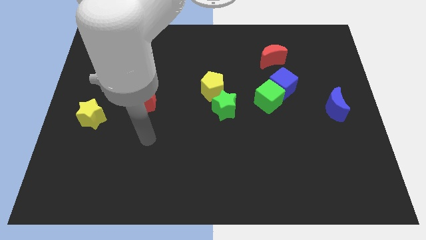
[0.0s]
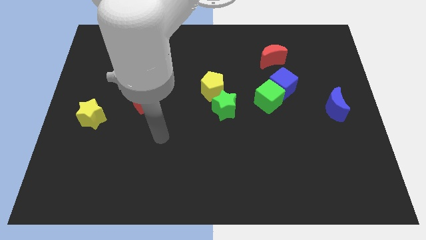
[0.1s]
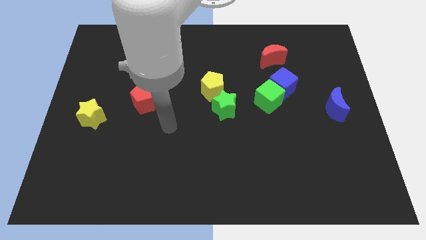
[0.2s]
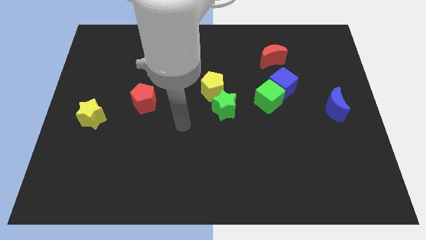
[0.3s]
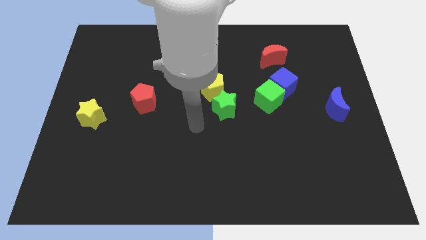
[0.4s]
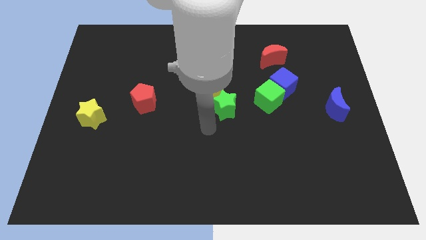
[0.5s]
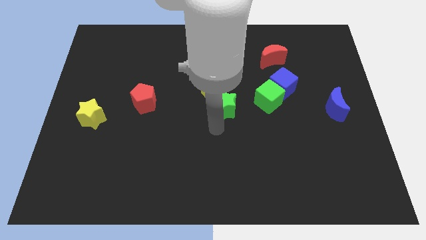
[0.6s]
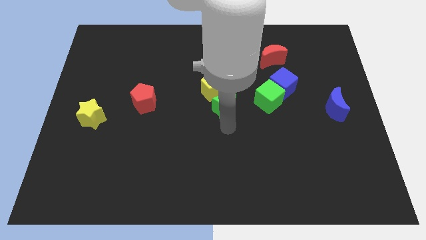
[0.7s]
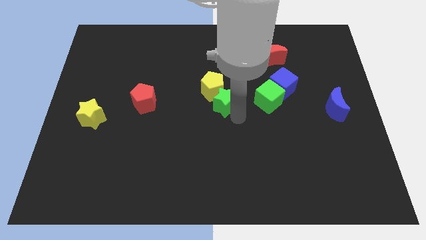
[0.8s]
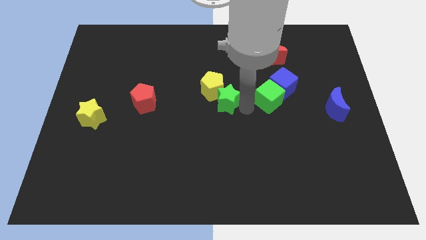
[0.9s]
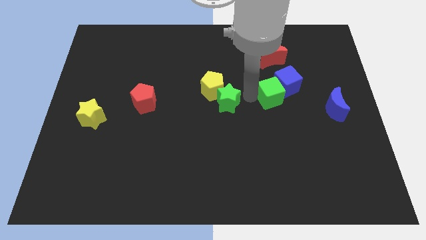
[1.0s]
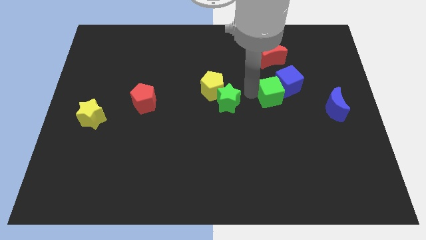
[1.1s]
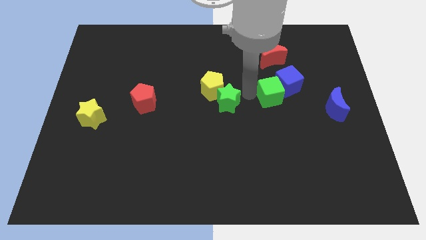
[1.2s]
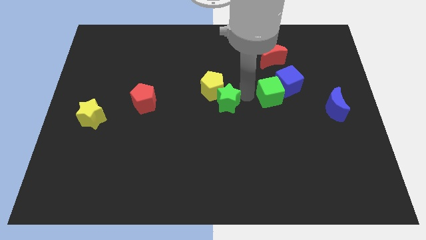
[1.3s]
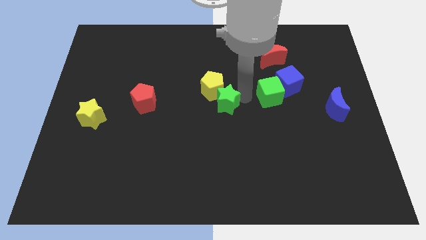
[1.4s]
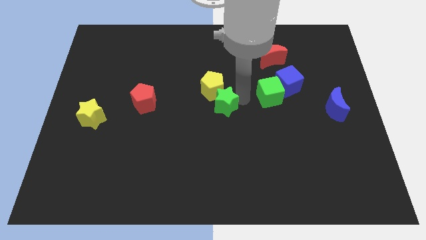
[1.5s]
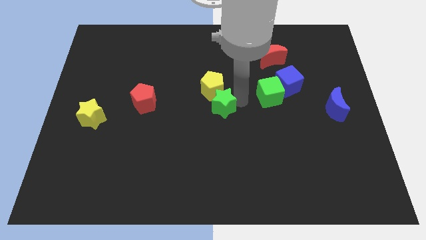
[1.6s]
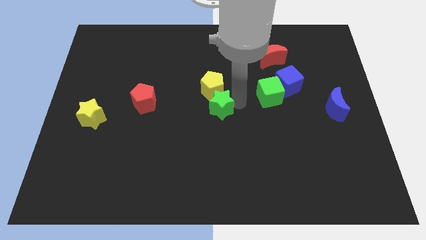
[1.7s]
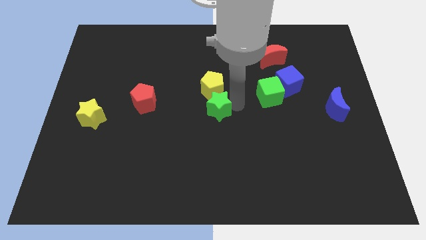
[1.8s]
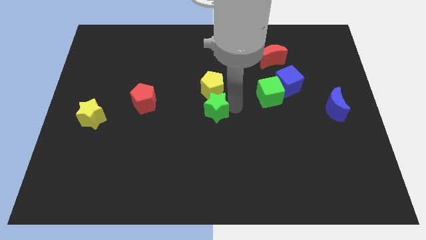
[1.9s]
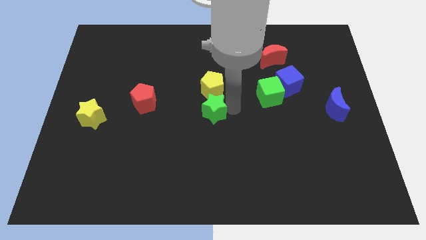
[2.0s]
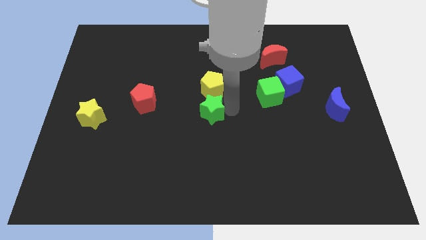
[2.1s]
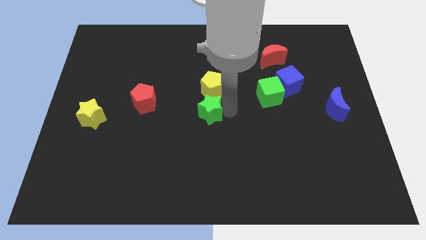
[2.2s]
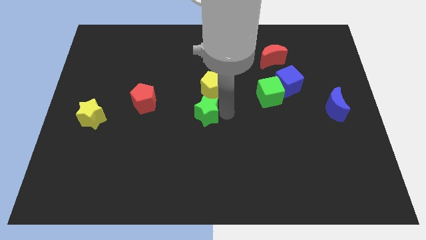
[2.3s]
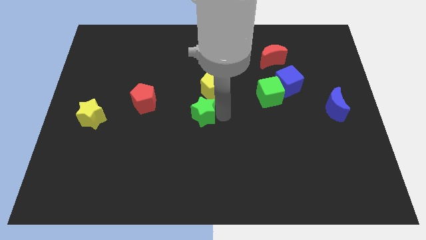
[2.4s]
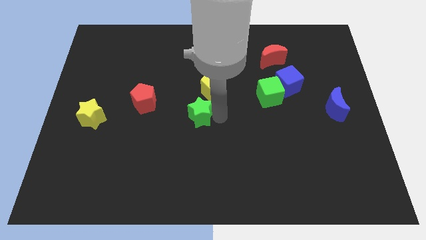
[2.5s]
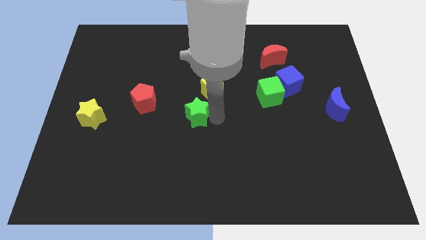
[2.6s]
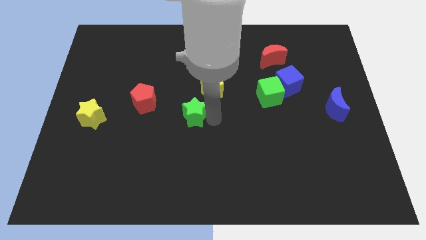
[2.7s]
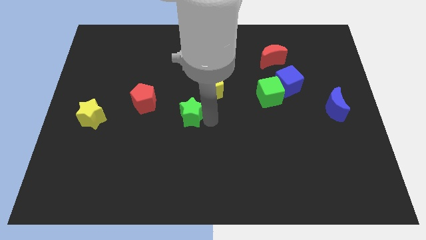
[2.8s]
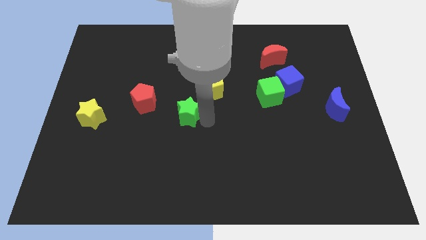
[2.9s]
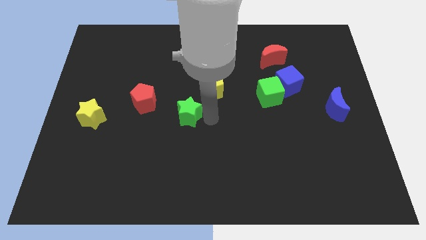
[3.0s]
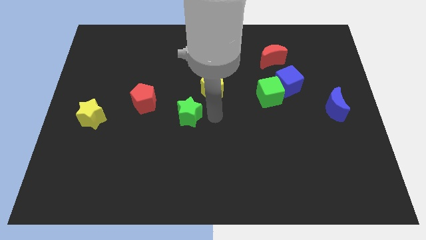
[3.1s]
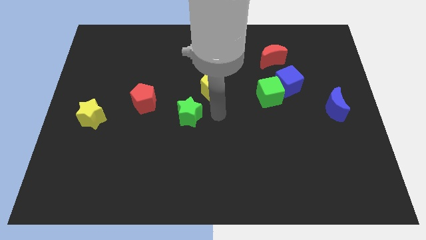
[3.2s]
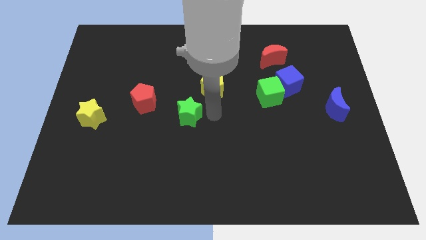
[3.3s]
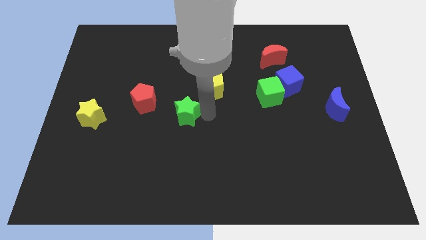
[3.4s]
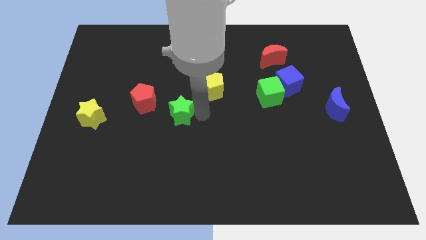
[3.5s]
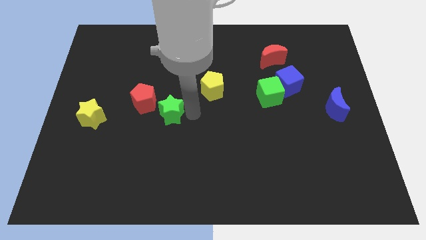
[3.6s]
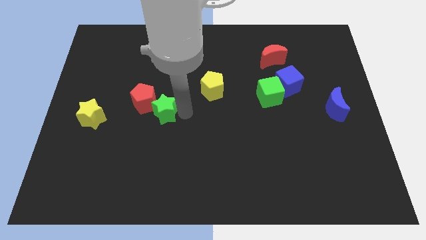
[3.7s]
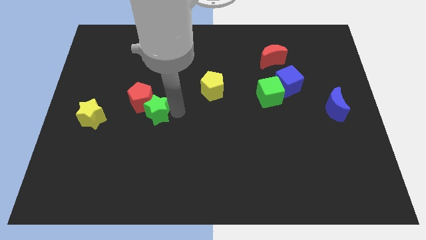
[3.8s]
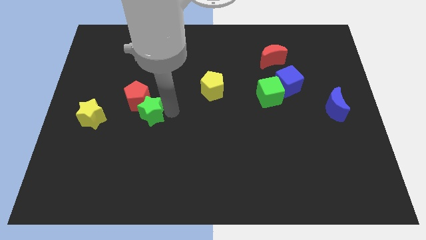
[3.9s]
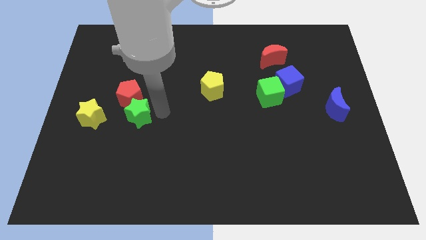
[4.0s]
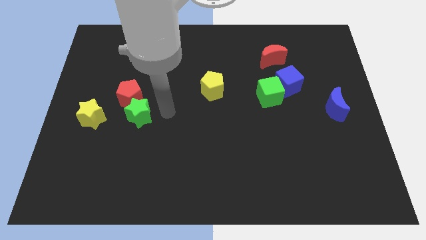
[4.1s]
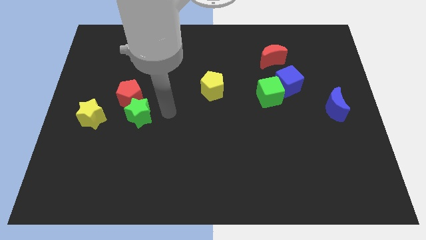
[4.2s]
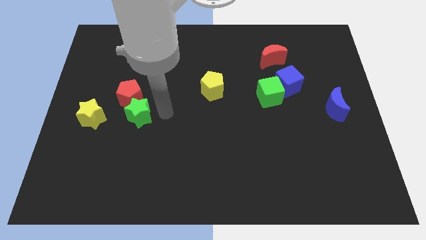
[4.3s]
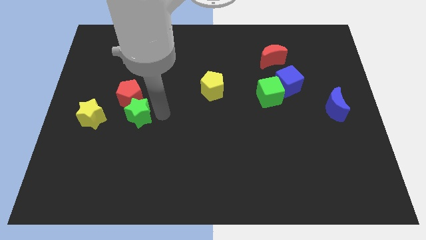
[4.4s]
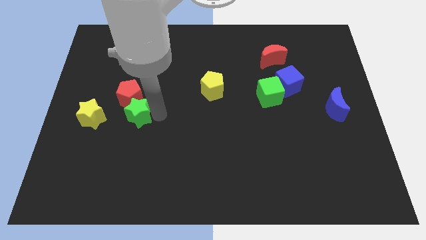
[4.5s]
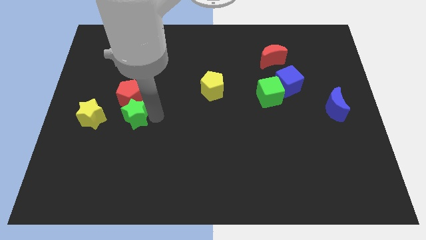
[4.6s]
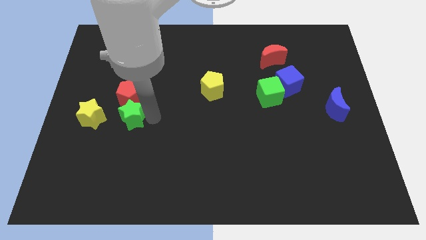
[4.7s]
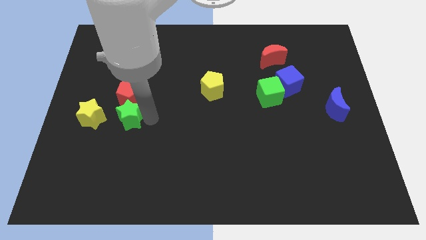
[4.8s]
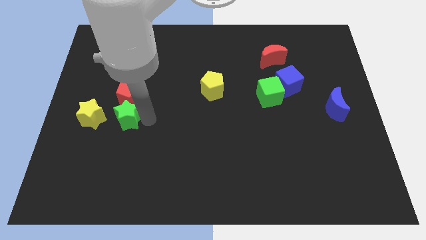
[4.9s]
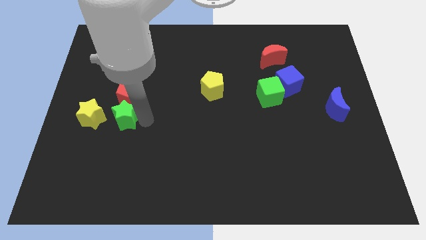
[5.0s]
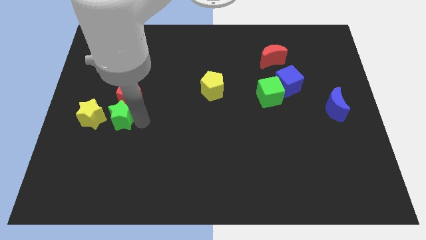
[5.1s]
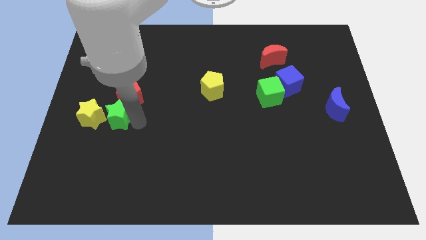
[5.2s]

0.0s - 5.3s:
put the green star close to the yellow star

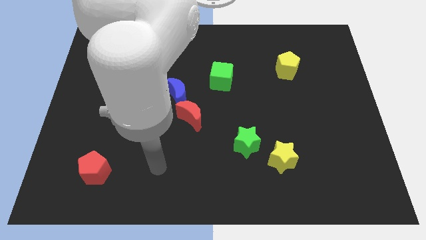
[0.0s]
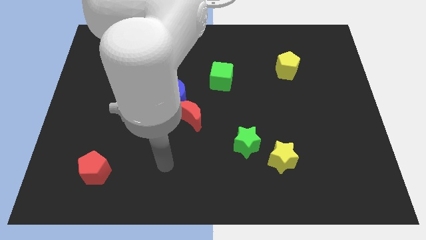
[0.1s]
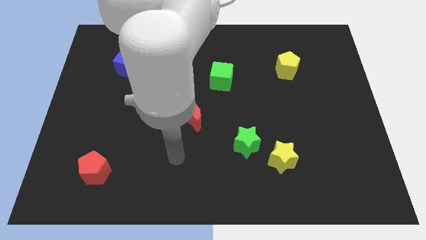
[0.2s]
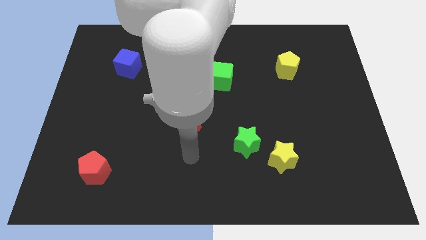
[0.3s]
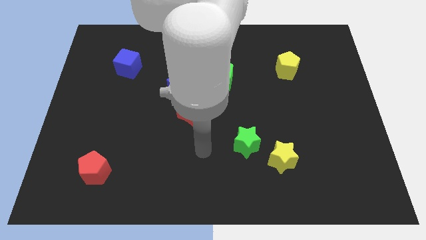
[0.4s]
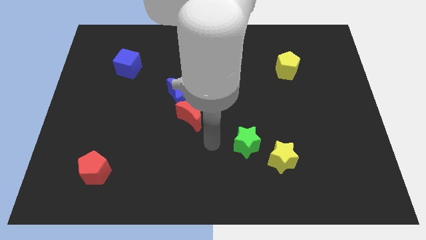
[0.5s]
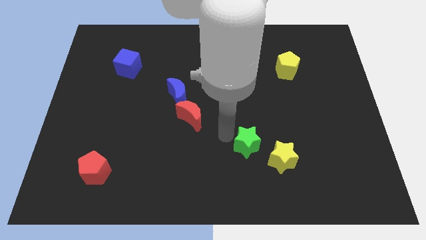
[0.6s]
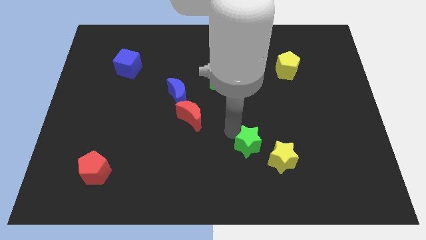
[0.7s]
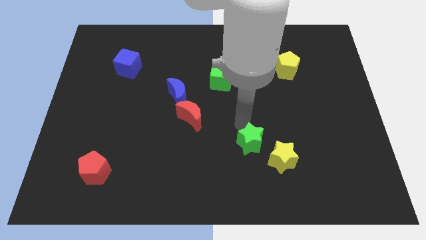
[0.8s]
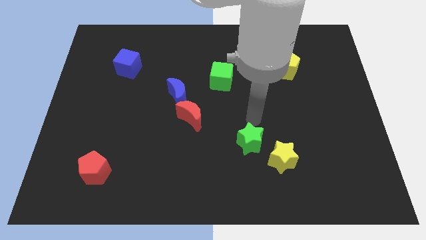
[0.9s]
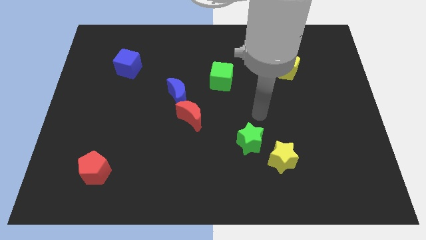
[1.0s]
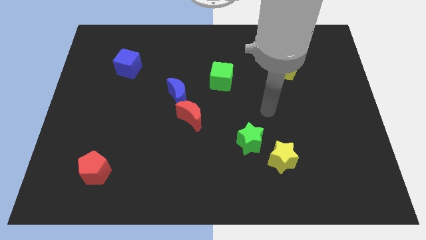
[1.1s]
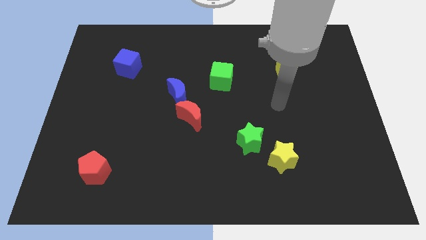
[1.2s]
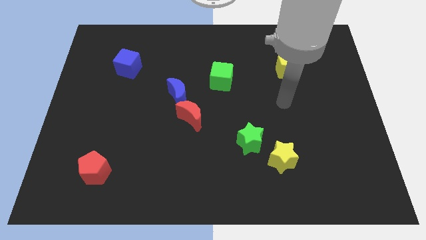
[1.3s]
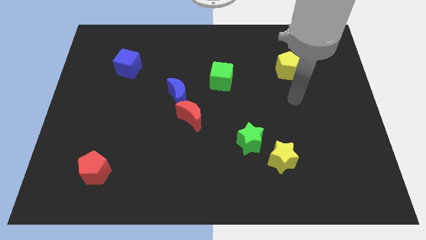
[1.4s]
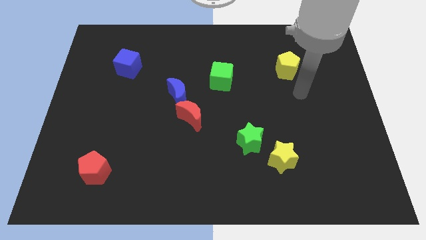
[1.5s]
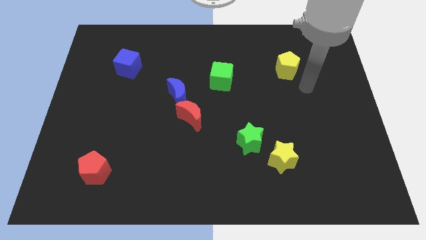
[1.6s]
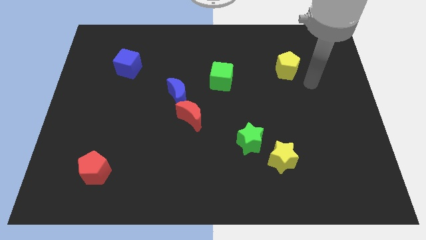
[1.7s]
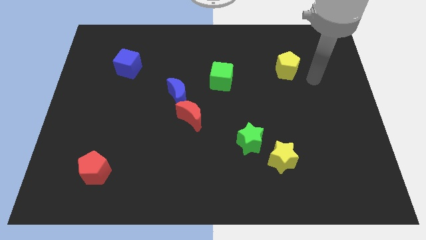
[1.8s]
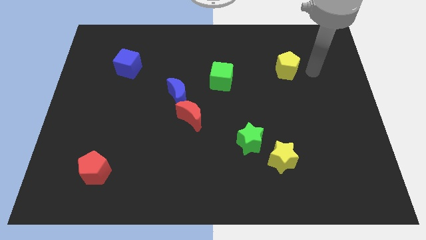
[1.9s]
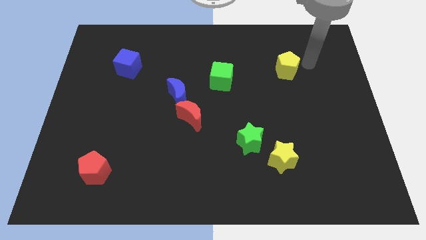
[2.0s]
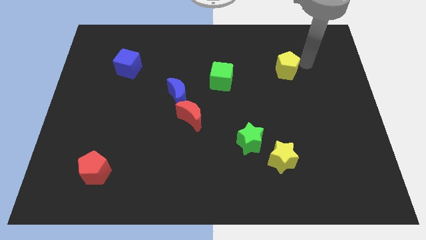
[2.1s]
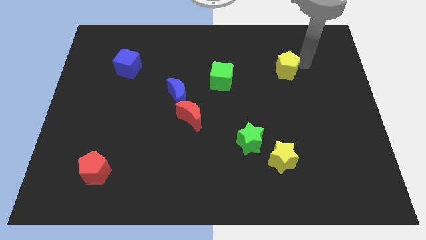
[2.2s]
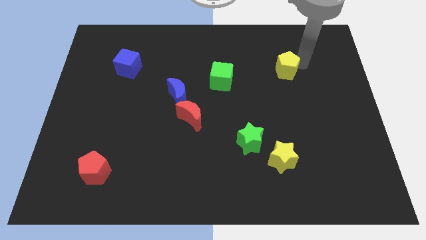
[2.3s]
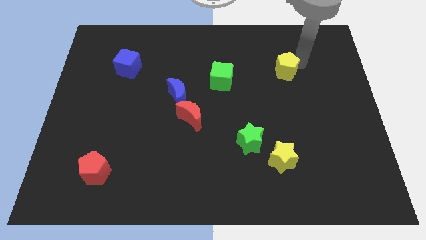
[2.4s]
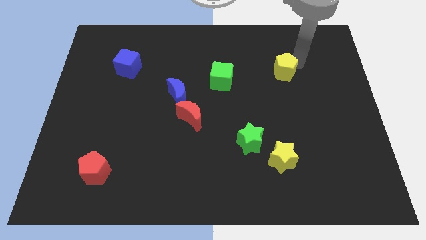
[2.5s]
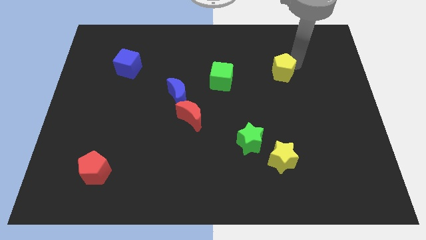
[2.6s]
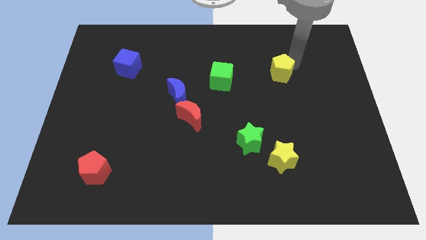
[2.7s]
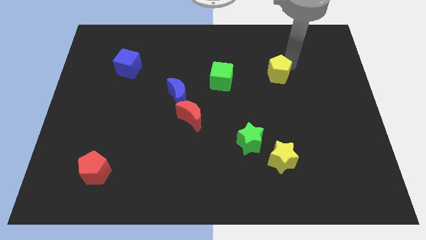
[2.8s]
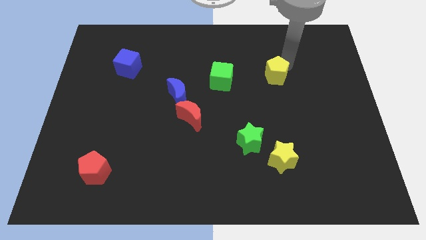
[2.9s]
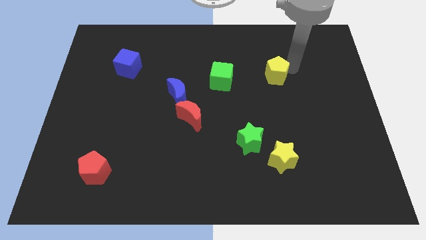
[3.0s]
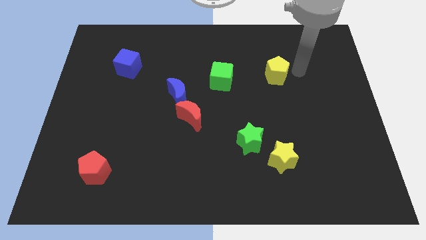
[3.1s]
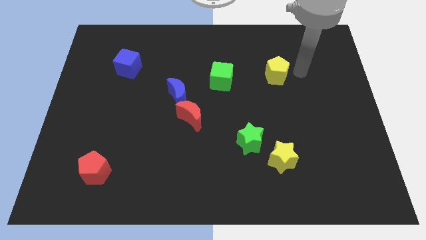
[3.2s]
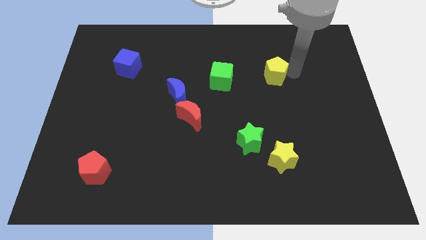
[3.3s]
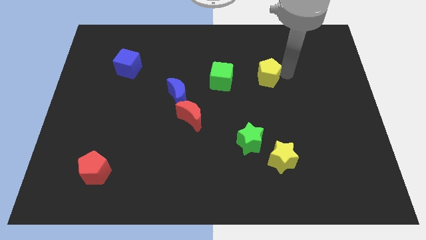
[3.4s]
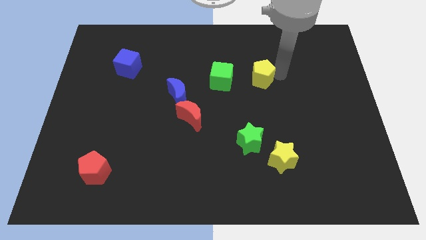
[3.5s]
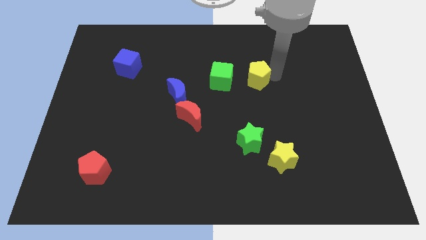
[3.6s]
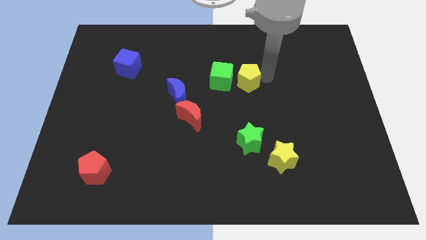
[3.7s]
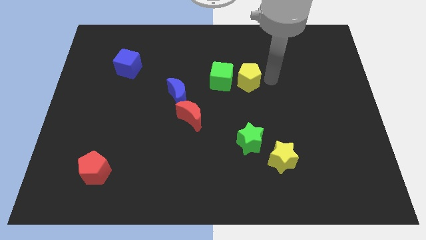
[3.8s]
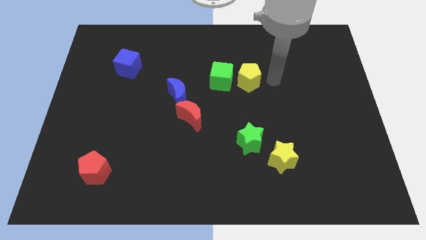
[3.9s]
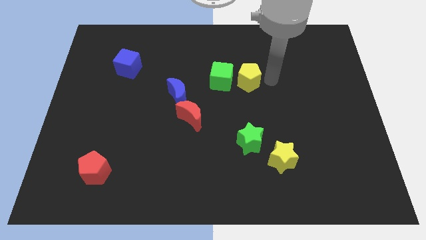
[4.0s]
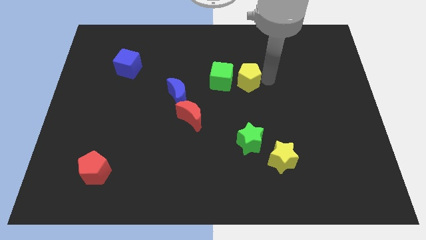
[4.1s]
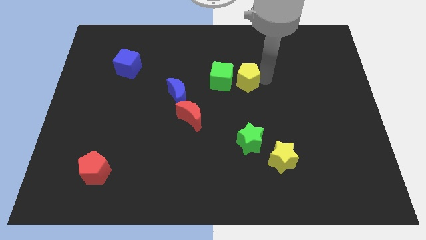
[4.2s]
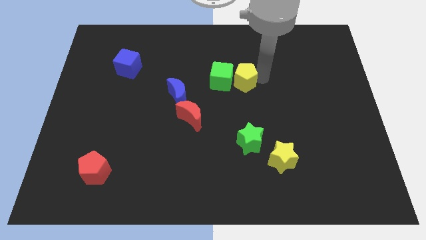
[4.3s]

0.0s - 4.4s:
put the yellow pentagon to the green cube
